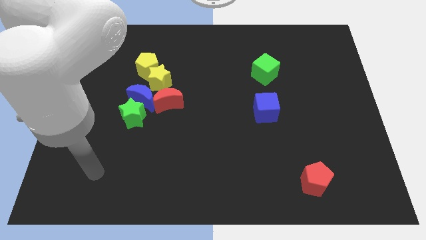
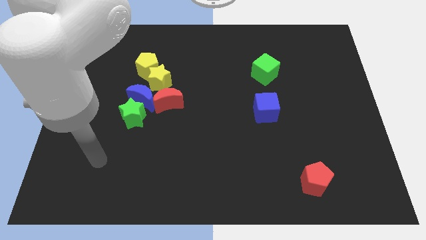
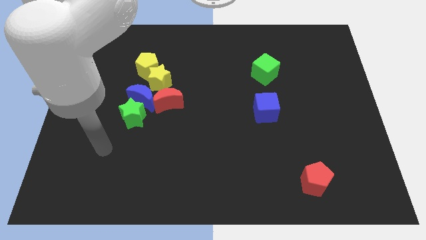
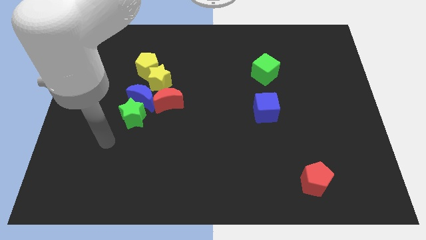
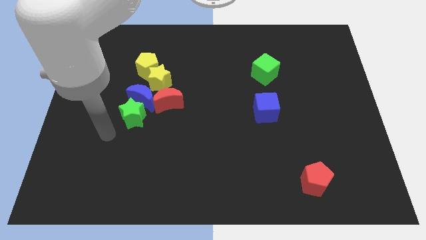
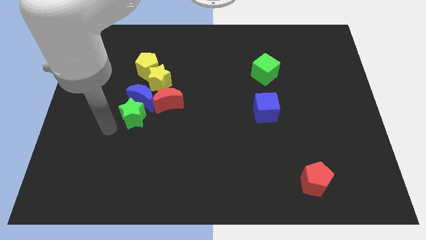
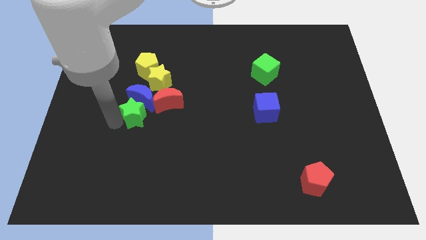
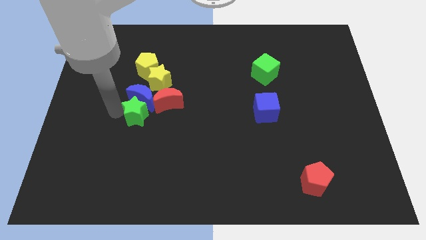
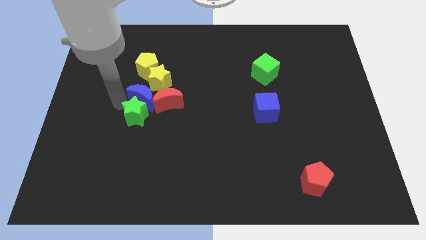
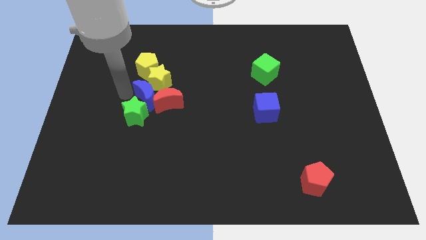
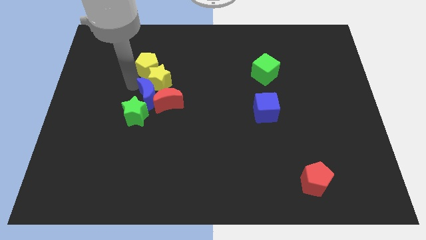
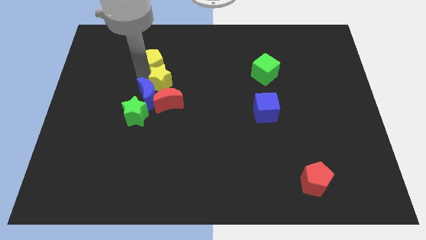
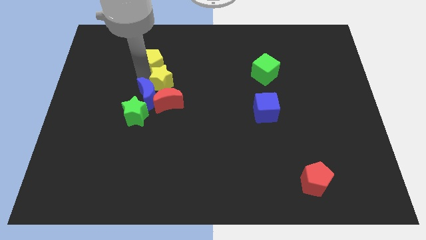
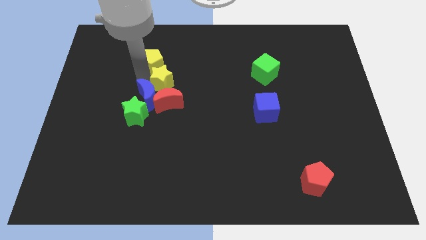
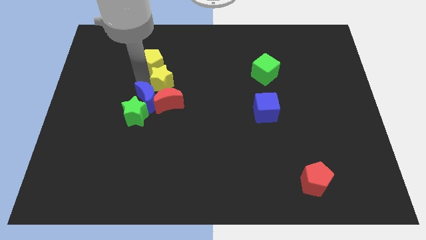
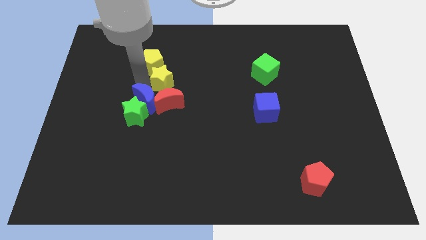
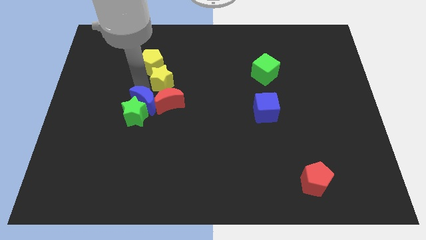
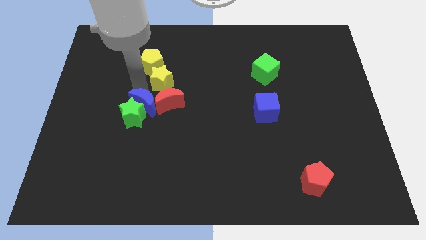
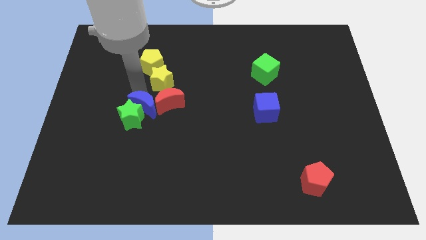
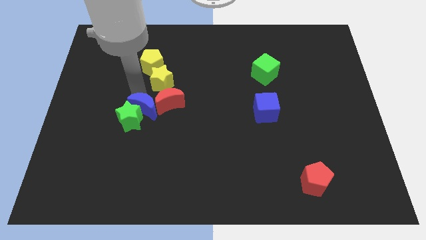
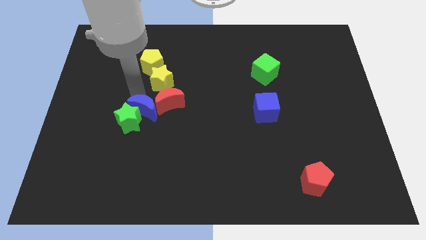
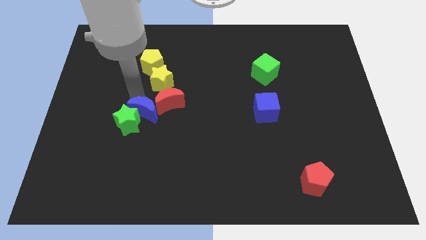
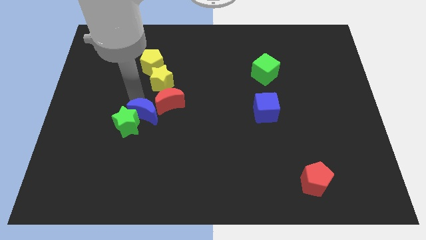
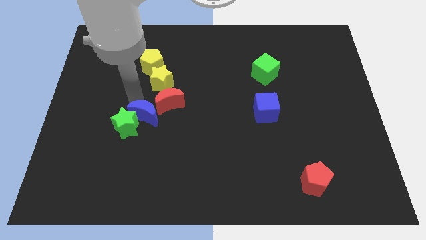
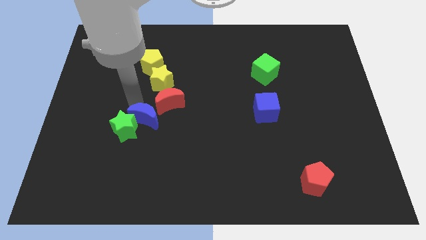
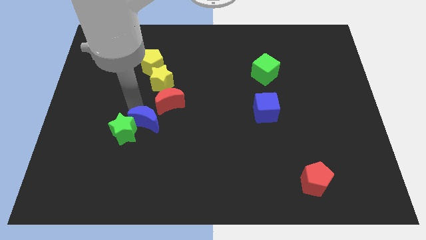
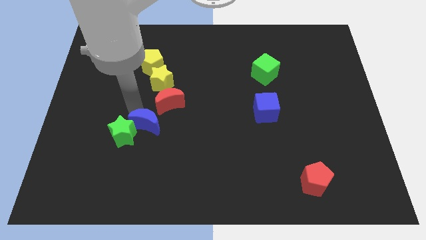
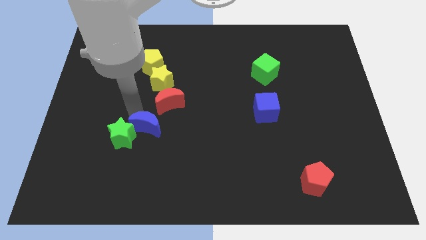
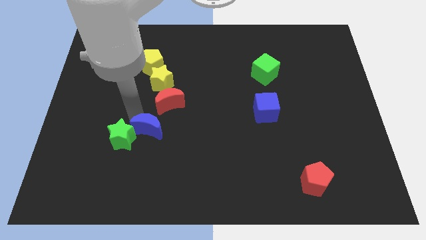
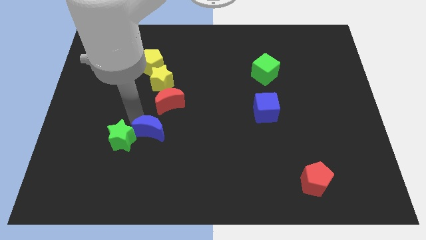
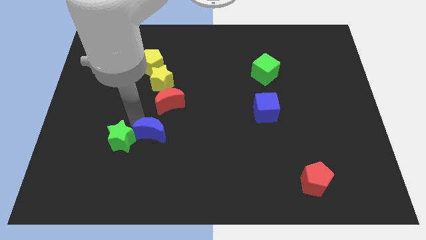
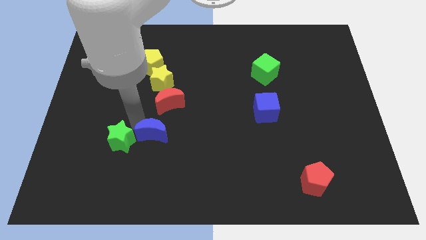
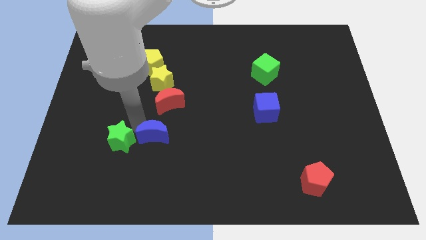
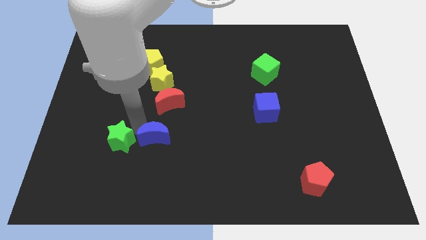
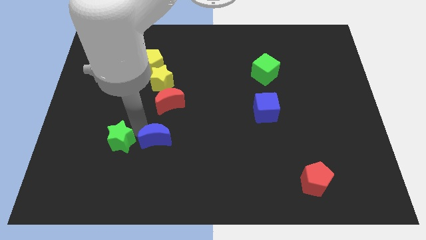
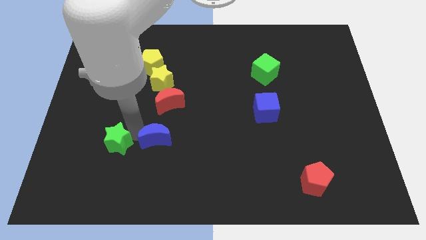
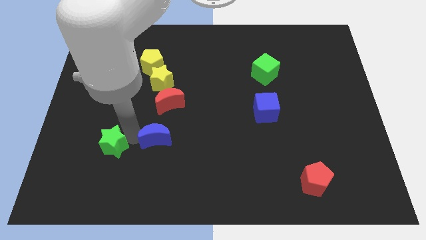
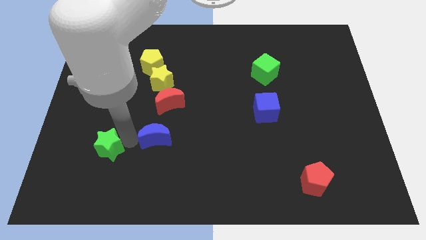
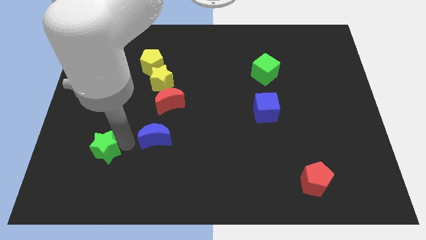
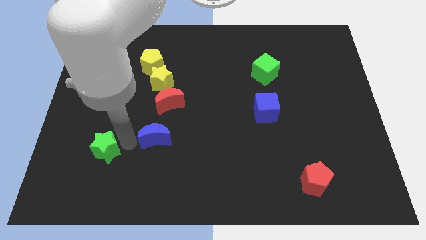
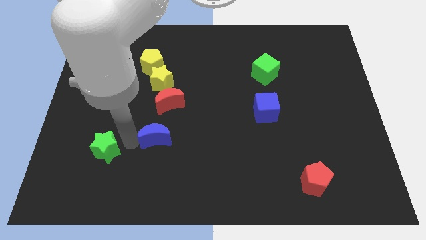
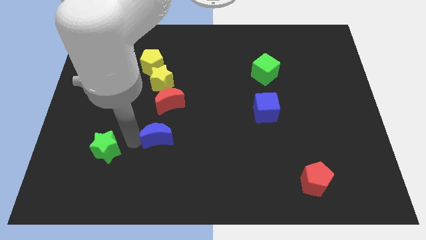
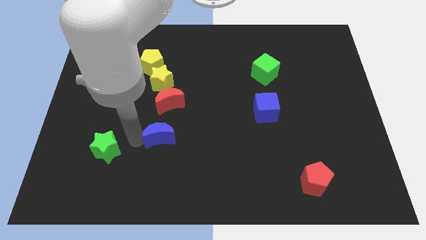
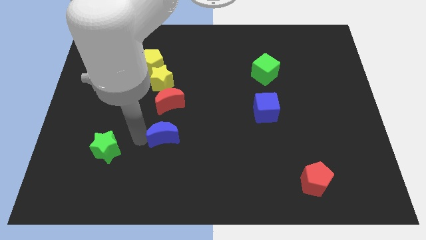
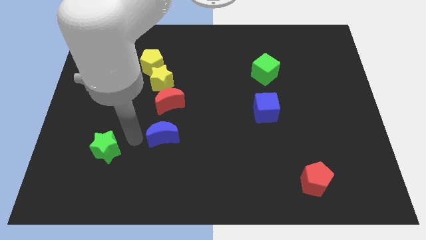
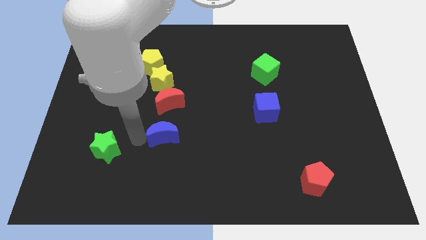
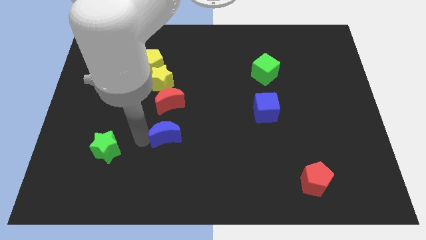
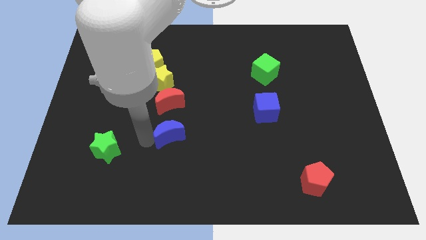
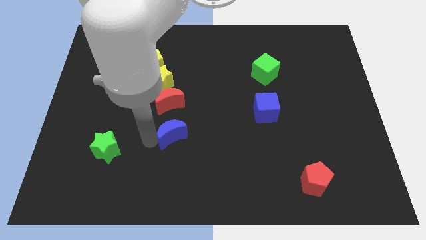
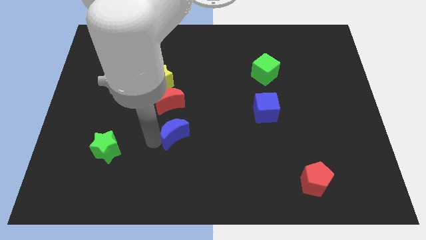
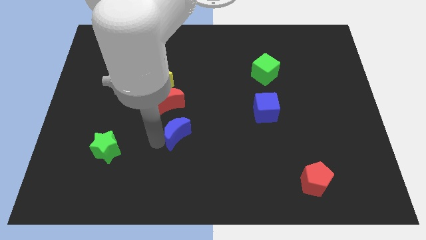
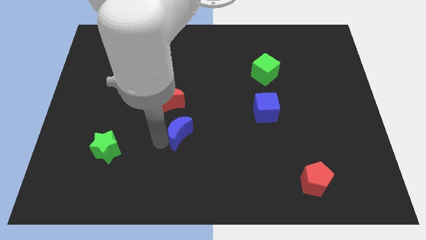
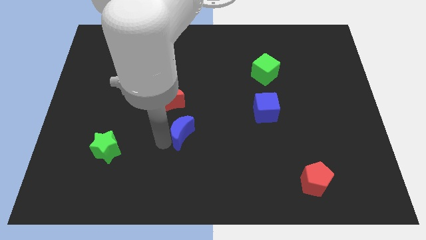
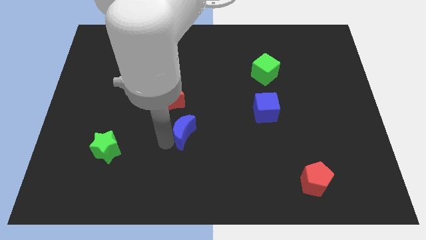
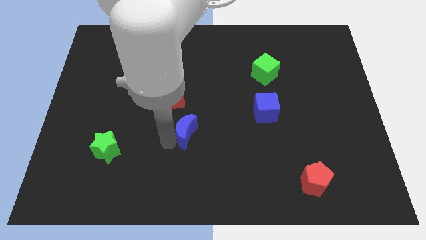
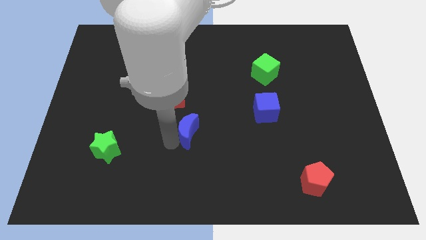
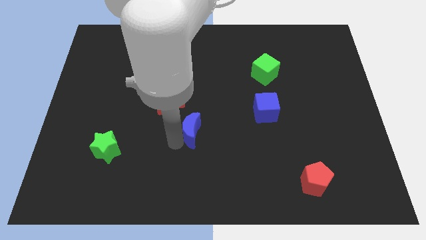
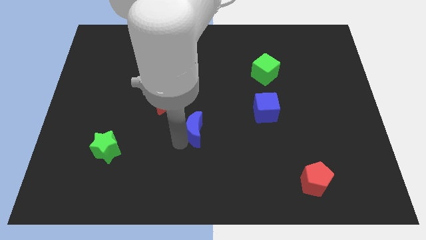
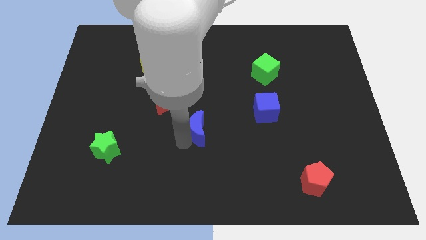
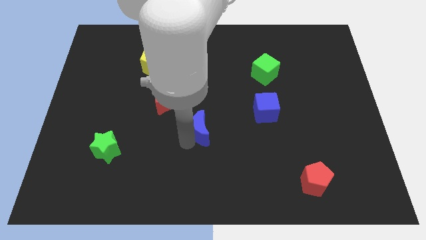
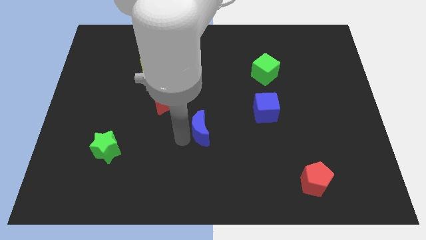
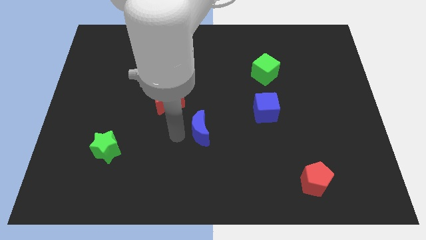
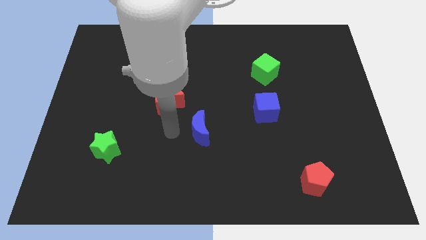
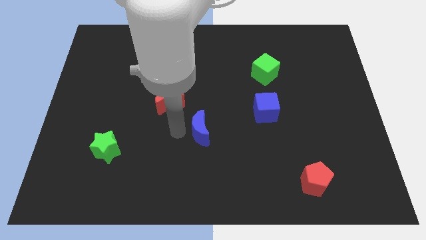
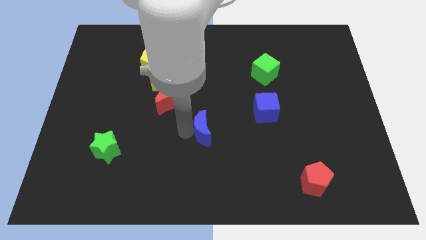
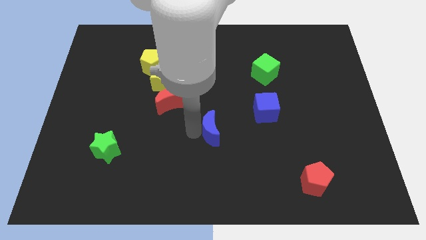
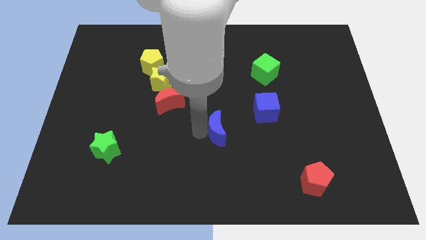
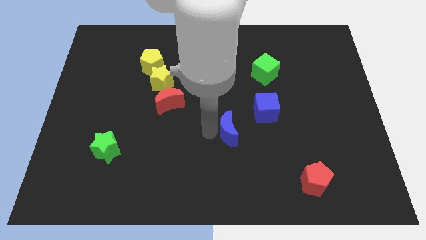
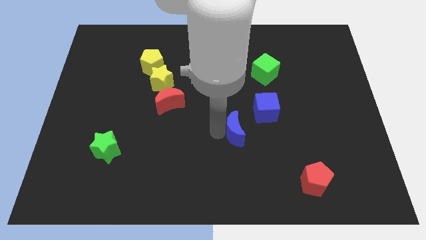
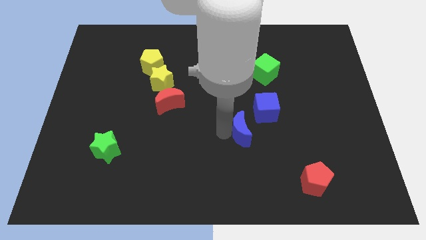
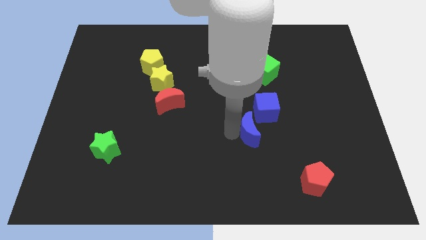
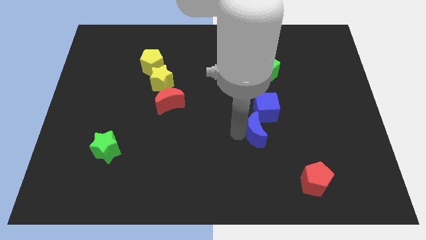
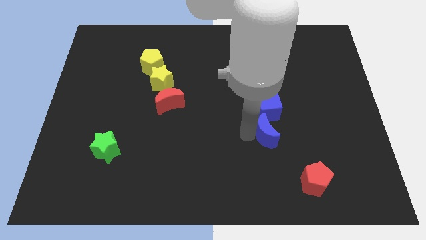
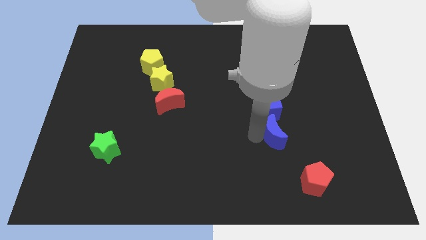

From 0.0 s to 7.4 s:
slide the blue moon to the bottom right of the blue cube
